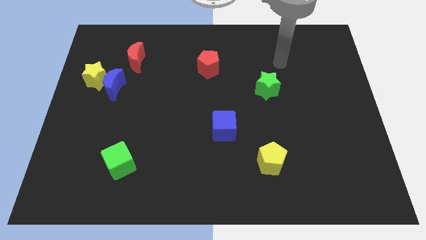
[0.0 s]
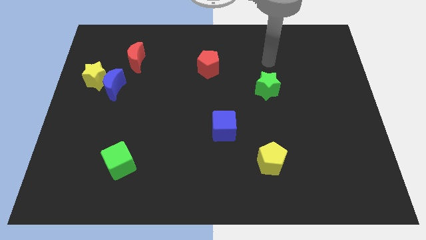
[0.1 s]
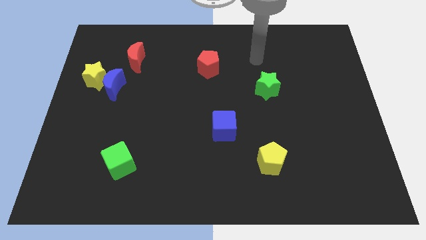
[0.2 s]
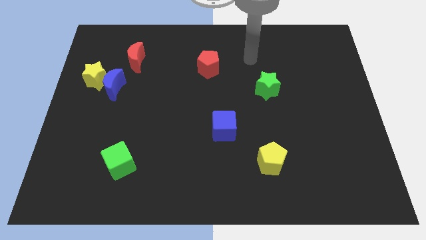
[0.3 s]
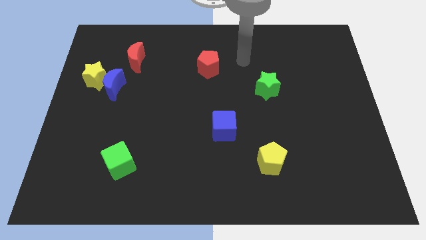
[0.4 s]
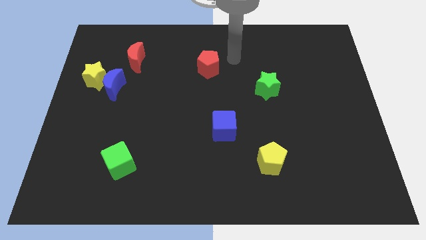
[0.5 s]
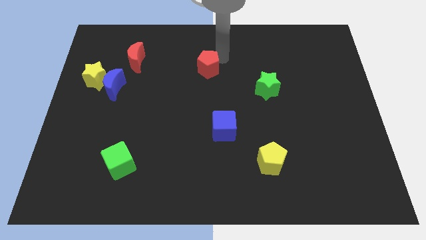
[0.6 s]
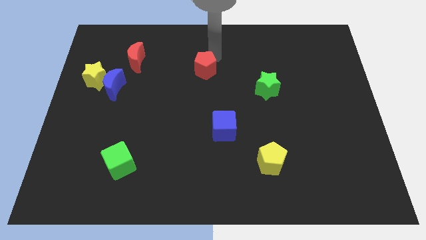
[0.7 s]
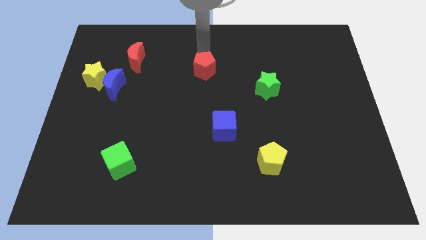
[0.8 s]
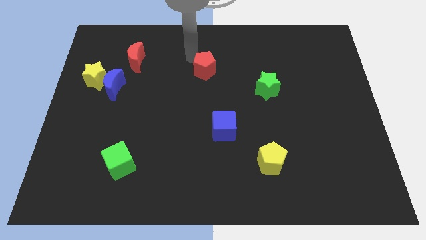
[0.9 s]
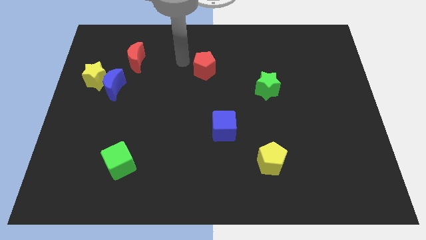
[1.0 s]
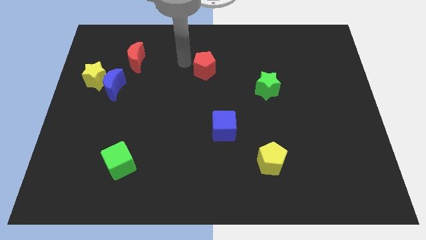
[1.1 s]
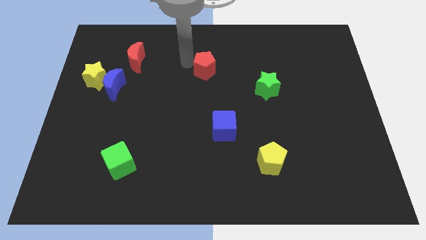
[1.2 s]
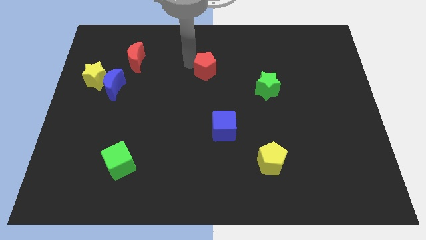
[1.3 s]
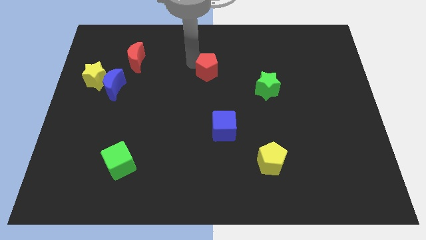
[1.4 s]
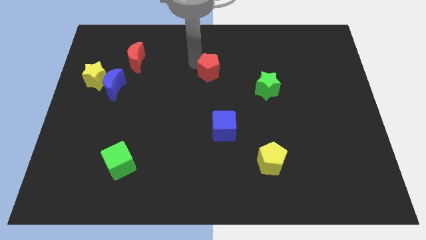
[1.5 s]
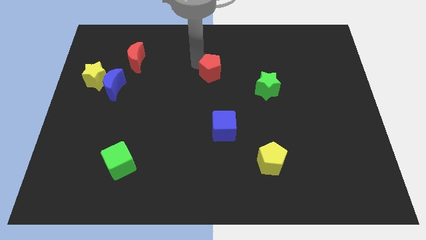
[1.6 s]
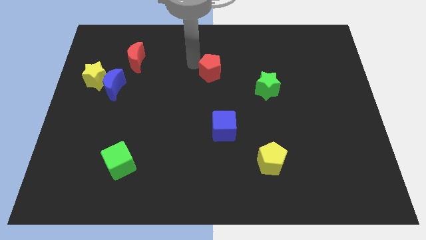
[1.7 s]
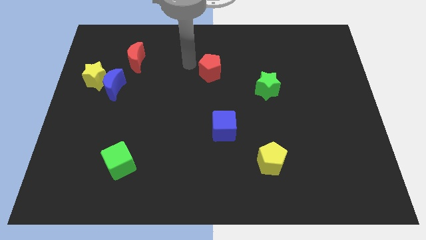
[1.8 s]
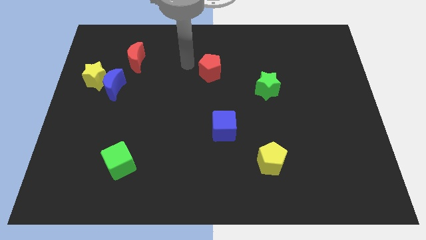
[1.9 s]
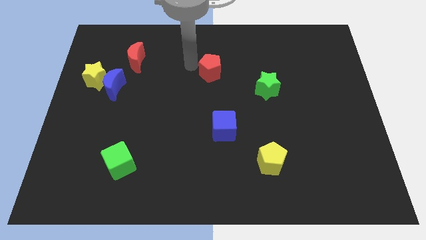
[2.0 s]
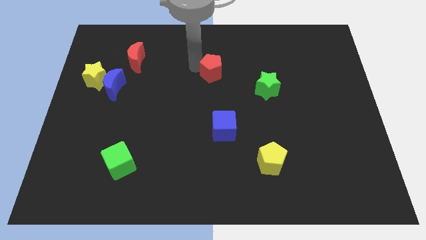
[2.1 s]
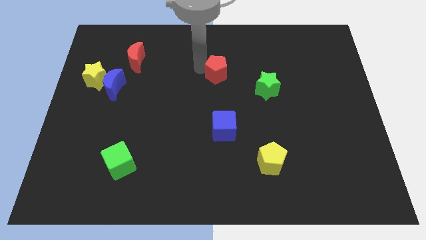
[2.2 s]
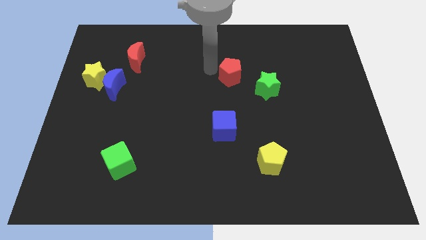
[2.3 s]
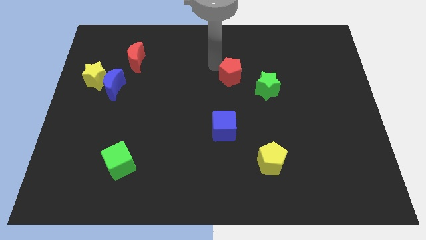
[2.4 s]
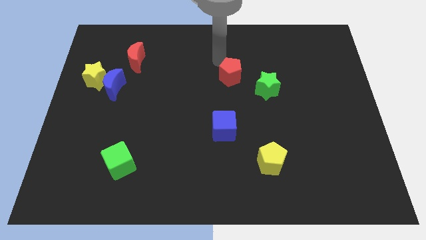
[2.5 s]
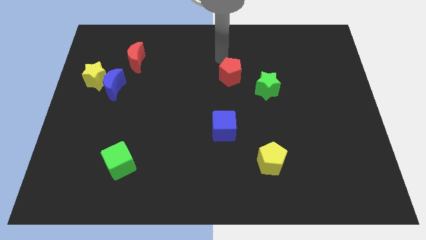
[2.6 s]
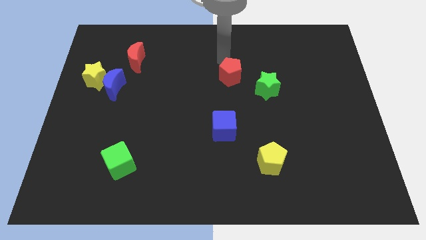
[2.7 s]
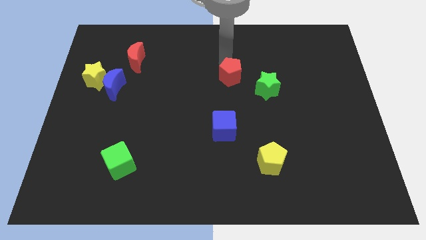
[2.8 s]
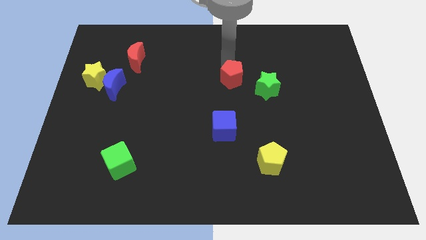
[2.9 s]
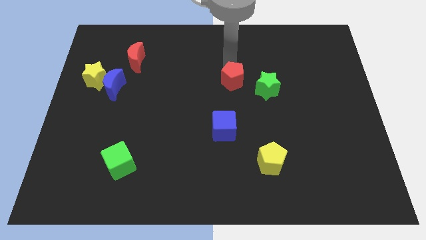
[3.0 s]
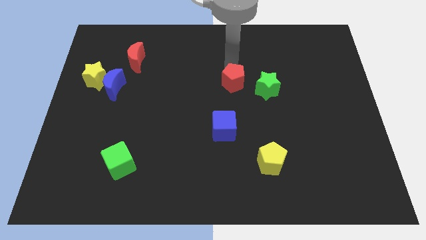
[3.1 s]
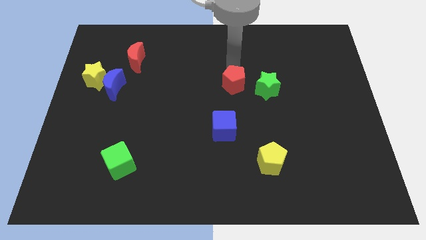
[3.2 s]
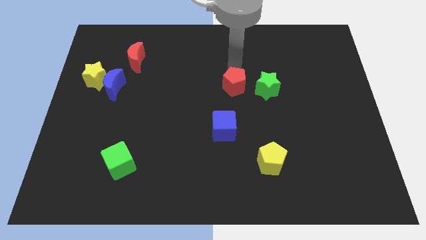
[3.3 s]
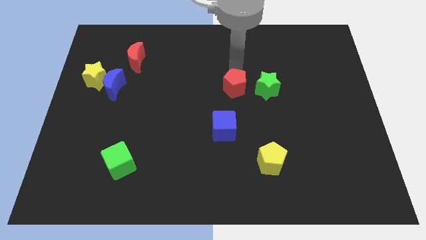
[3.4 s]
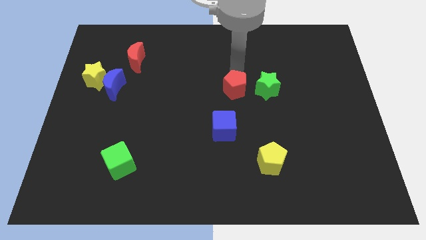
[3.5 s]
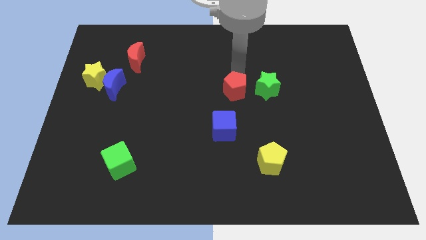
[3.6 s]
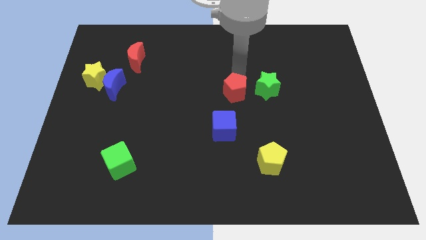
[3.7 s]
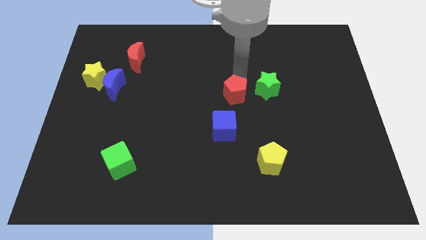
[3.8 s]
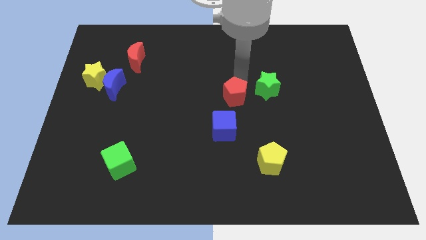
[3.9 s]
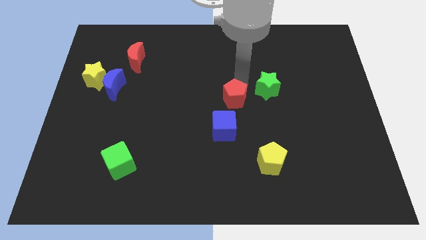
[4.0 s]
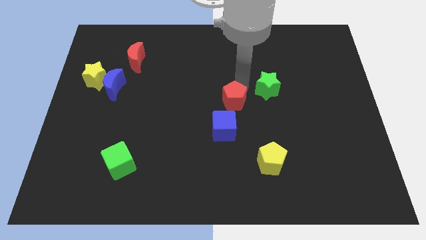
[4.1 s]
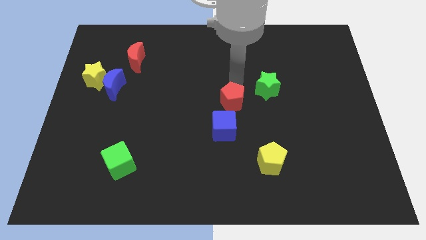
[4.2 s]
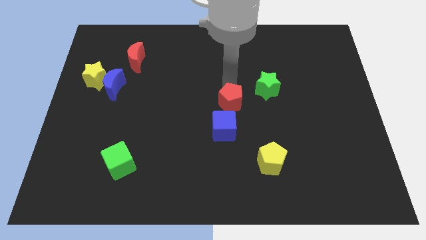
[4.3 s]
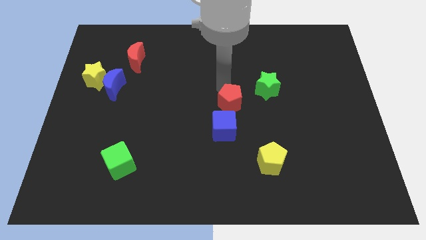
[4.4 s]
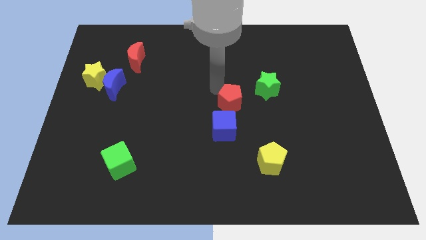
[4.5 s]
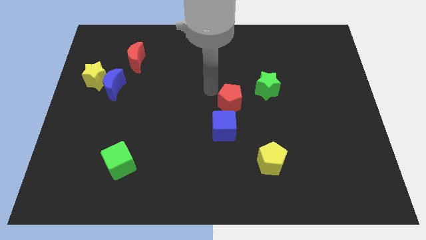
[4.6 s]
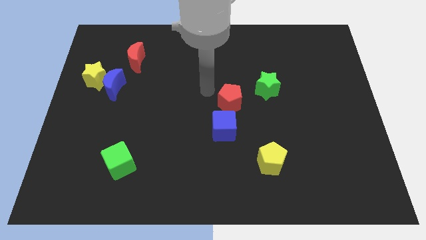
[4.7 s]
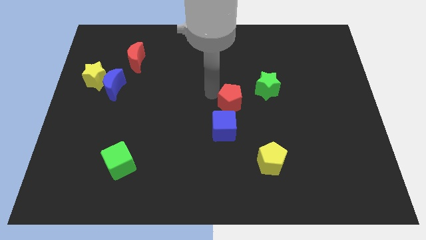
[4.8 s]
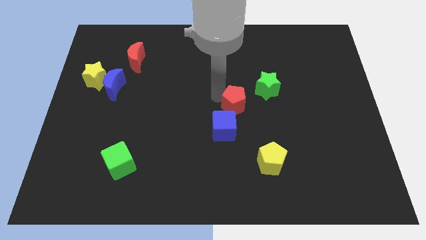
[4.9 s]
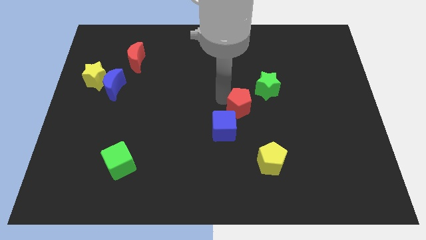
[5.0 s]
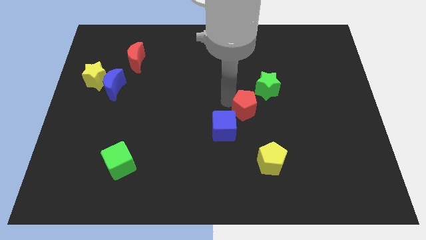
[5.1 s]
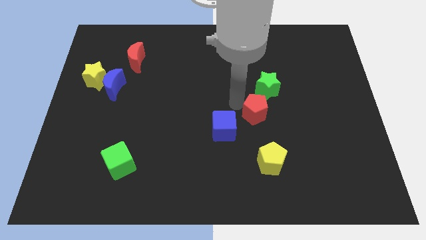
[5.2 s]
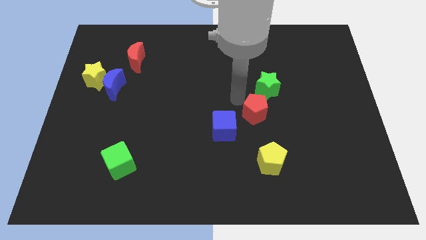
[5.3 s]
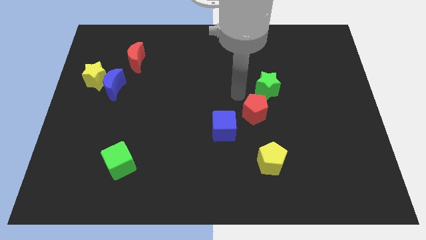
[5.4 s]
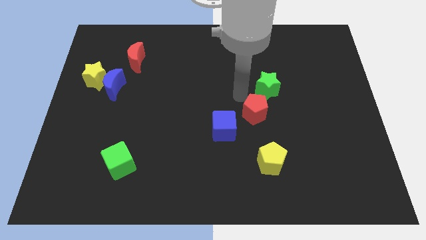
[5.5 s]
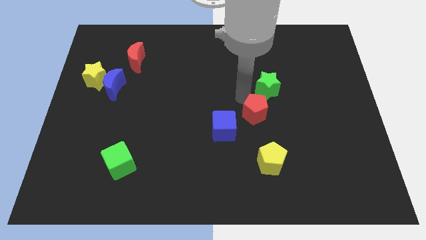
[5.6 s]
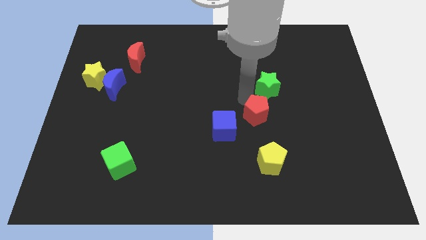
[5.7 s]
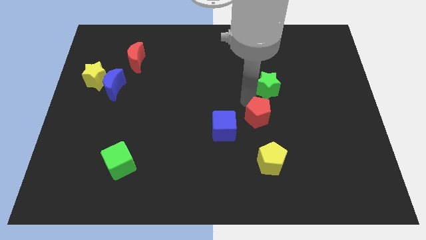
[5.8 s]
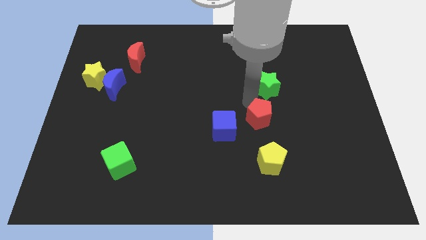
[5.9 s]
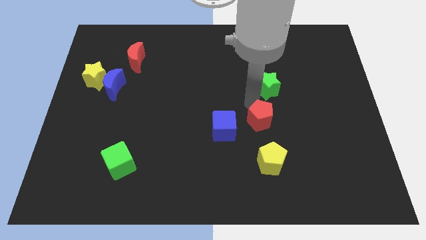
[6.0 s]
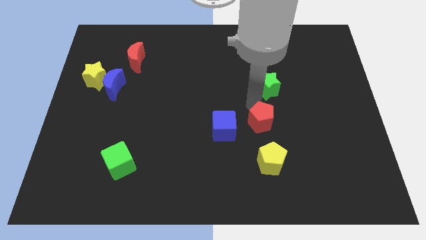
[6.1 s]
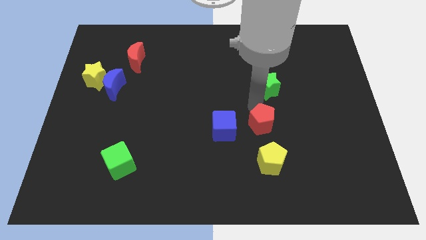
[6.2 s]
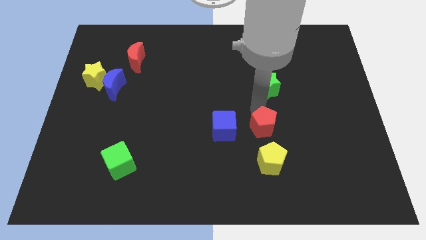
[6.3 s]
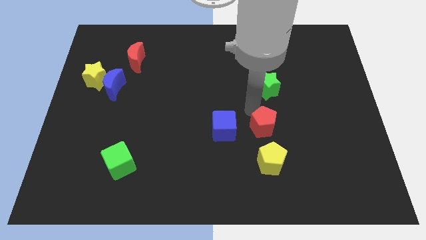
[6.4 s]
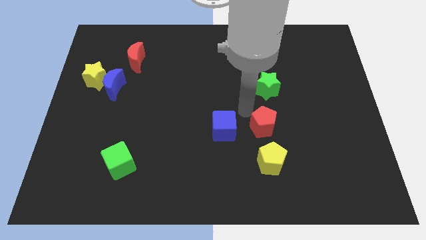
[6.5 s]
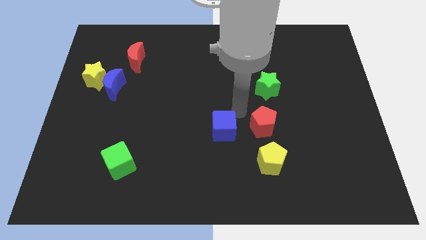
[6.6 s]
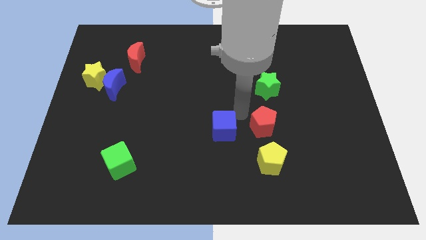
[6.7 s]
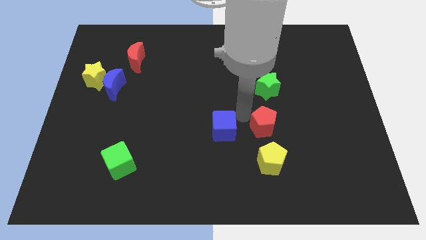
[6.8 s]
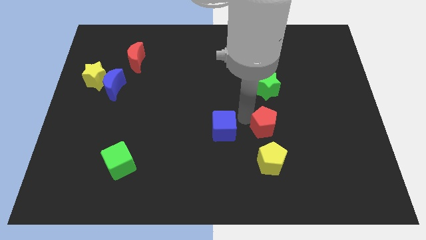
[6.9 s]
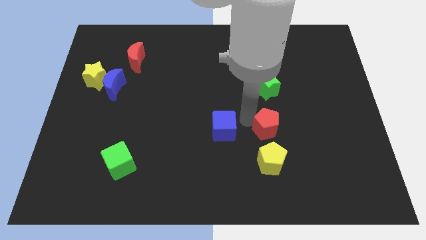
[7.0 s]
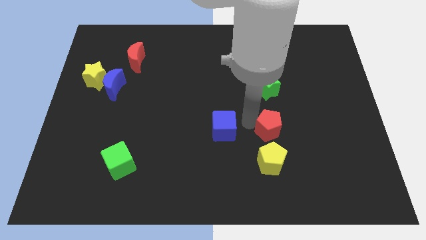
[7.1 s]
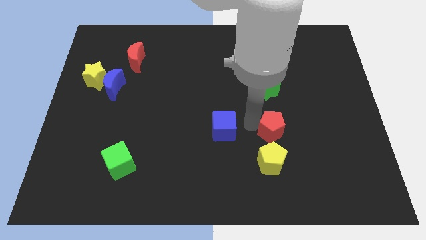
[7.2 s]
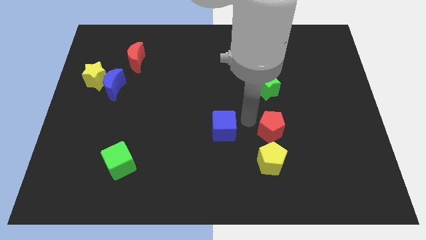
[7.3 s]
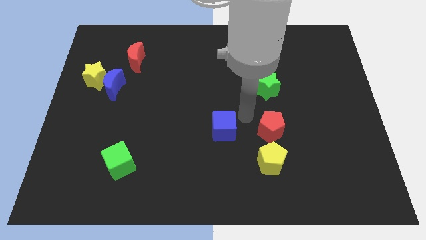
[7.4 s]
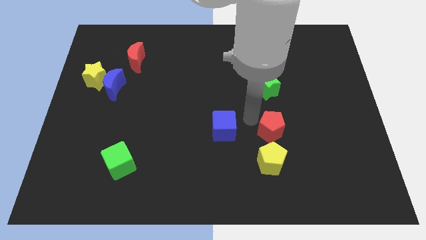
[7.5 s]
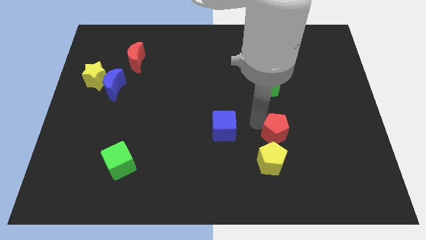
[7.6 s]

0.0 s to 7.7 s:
move the red pentagon diagonally up and to the right of the yellow pentagon

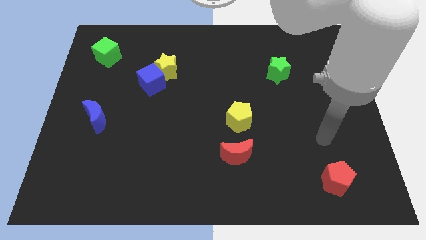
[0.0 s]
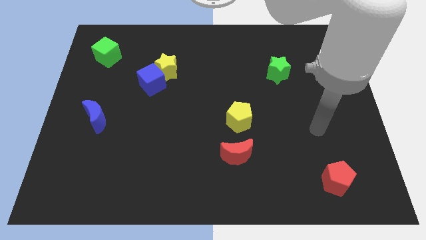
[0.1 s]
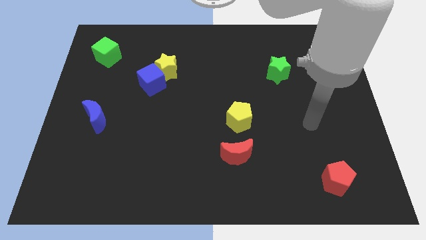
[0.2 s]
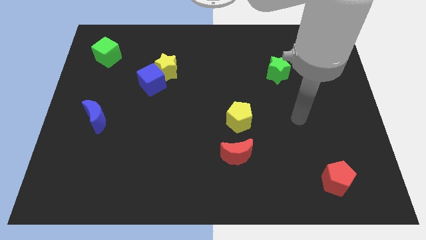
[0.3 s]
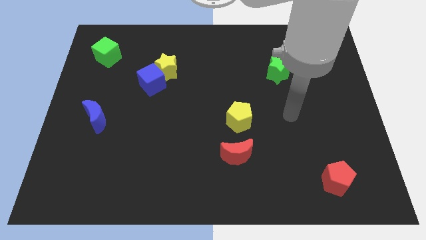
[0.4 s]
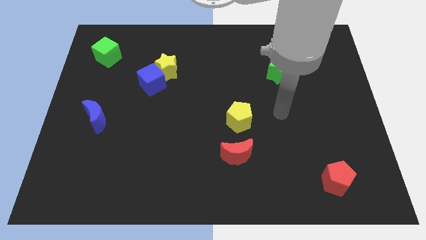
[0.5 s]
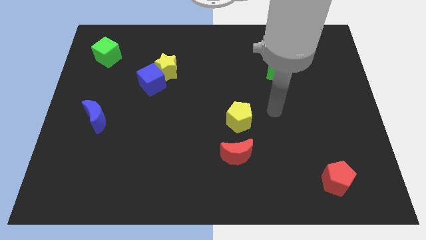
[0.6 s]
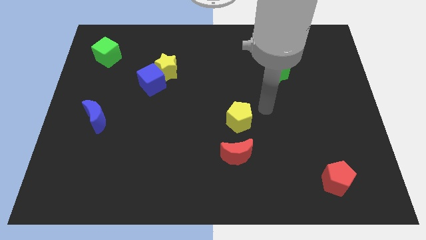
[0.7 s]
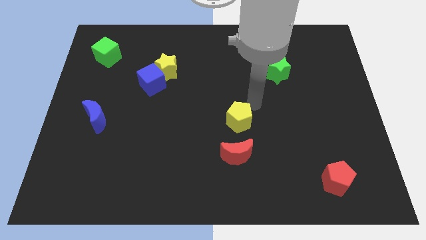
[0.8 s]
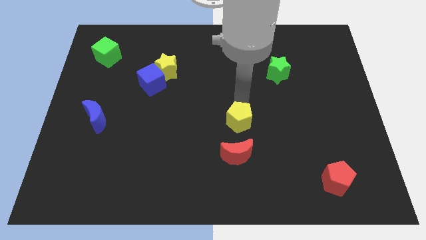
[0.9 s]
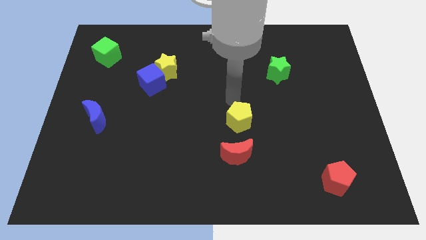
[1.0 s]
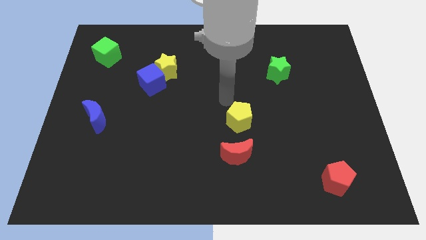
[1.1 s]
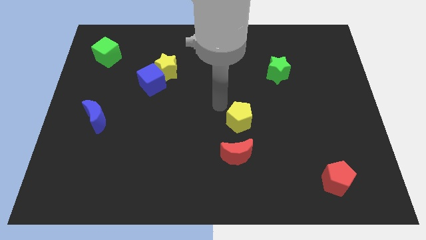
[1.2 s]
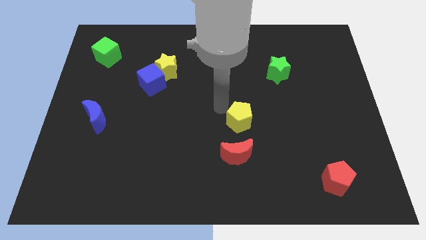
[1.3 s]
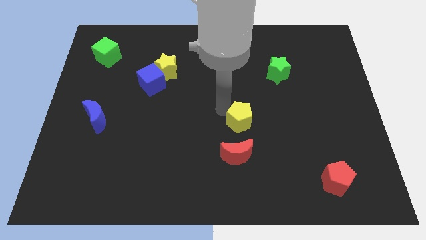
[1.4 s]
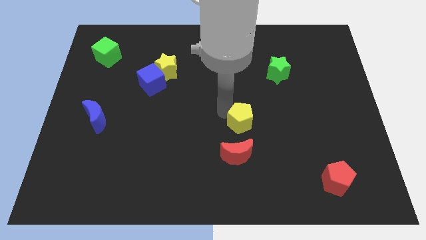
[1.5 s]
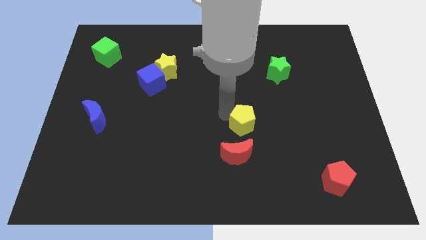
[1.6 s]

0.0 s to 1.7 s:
put the yellow pentagon to the top right side of the red moon
